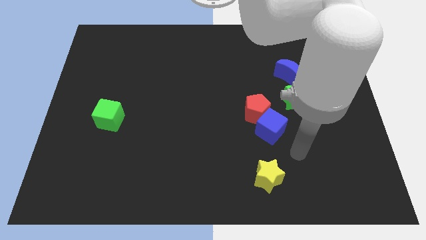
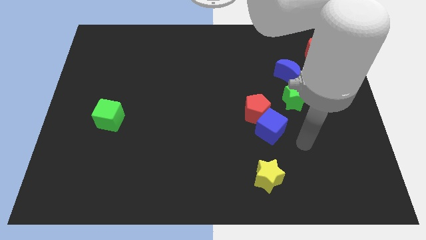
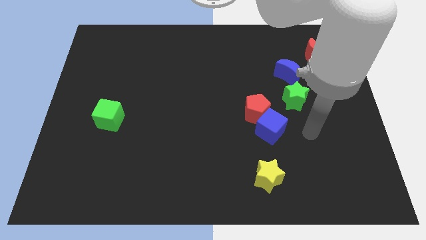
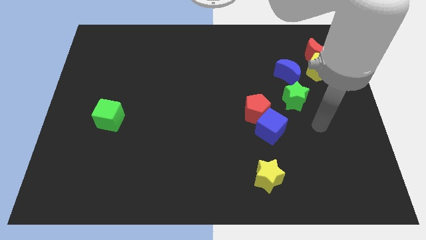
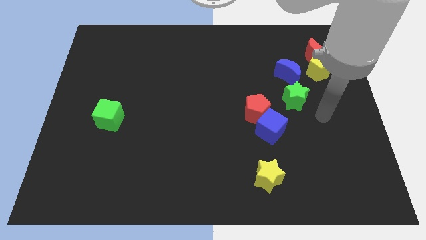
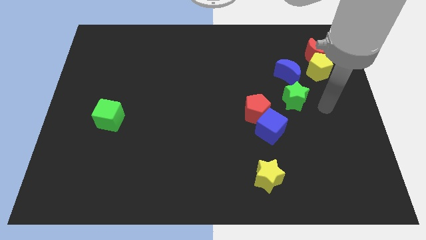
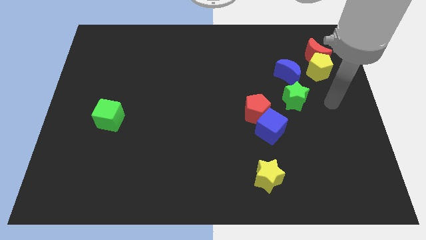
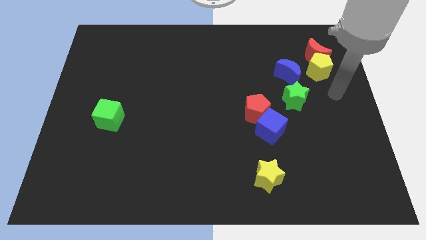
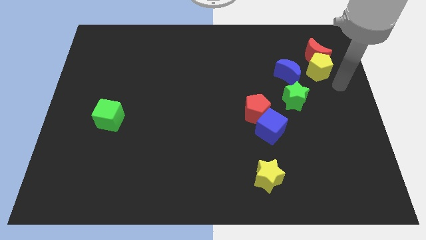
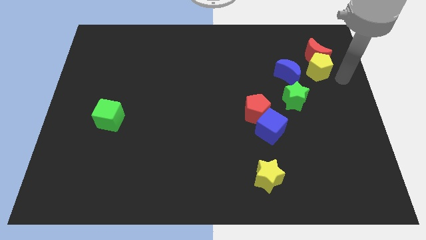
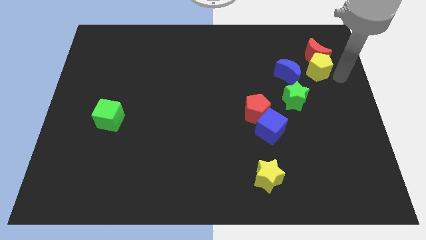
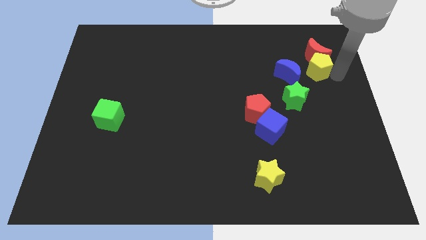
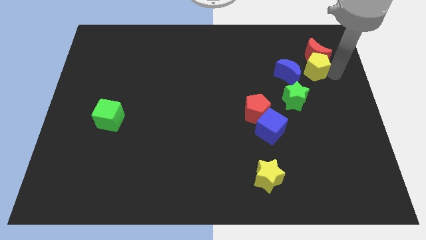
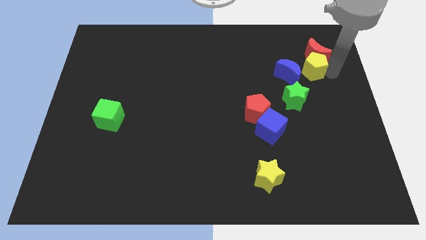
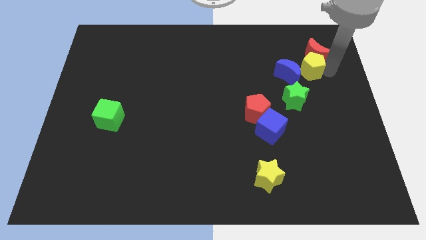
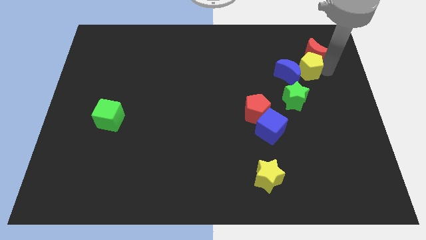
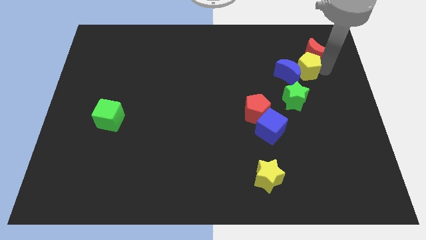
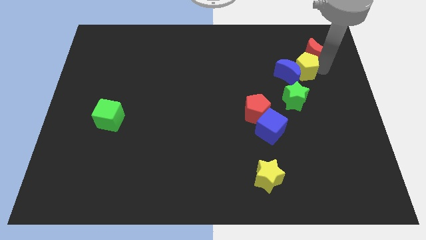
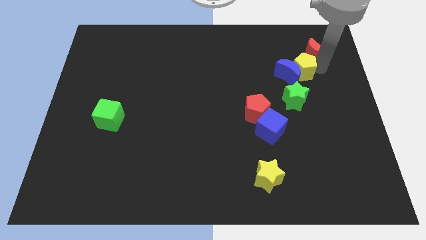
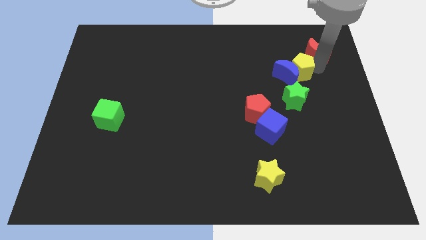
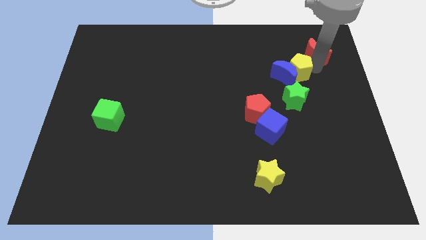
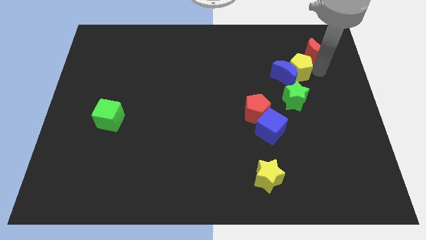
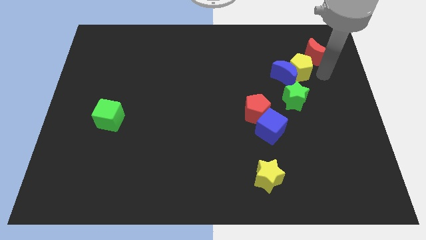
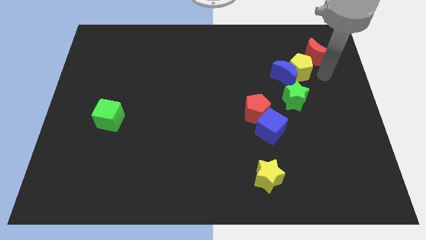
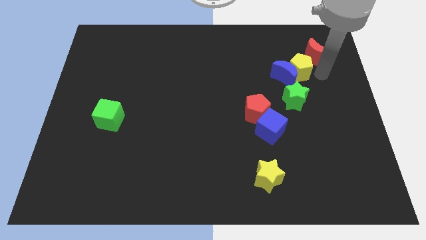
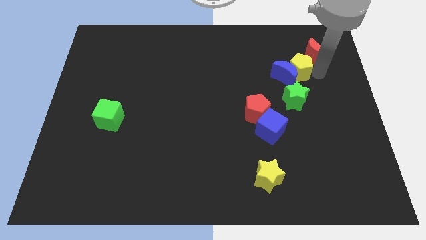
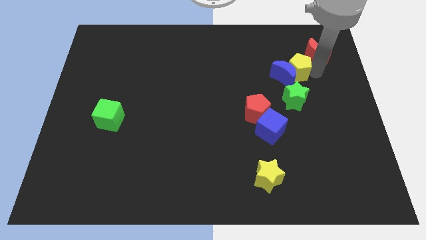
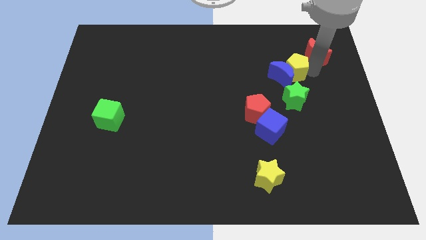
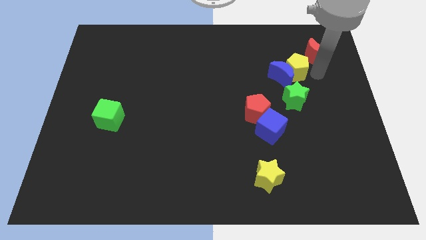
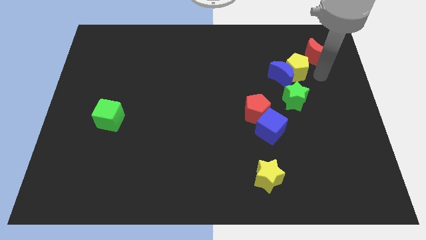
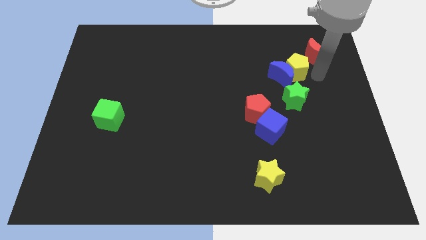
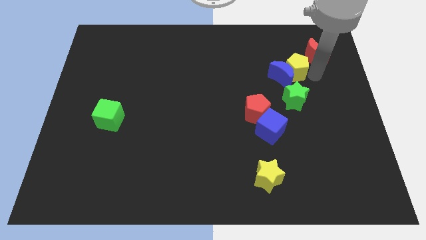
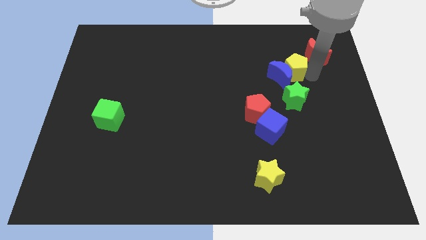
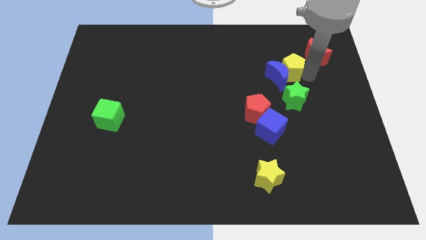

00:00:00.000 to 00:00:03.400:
push the yellow pentagon a bit left

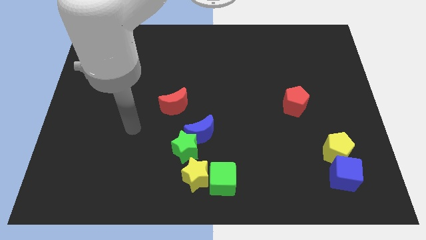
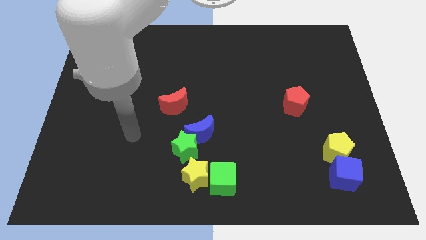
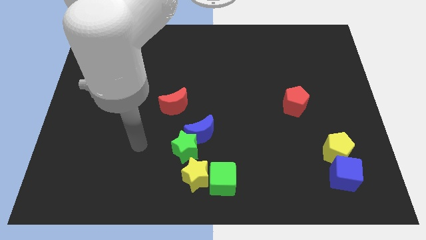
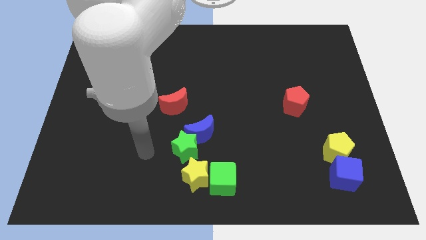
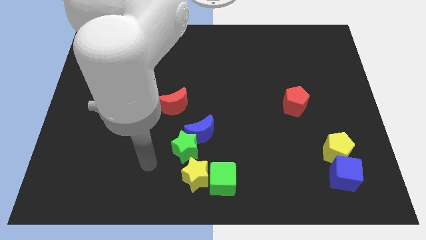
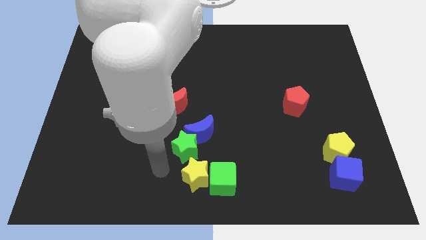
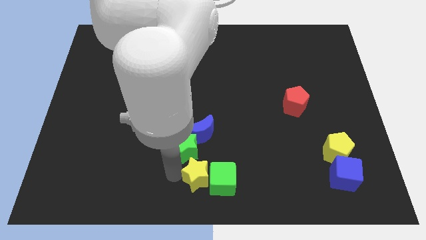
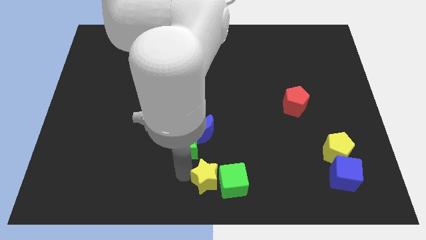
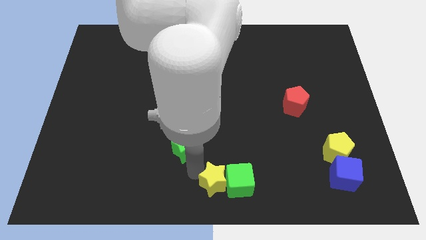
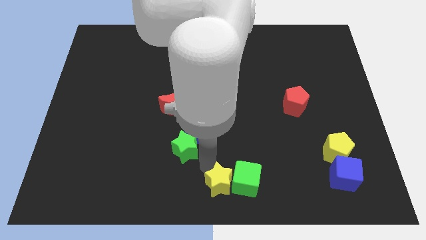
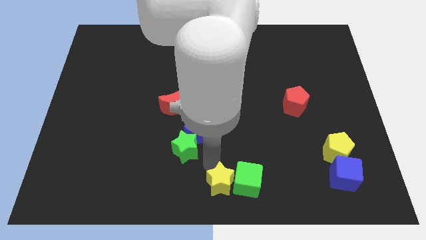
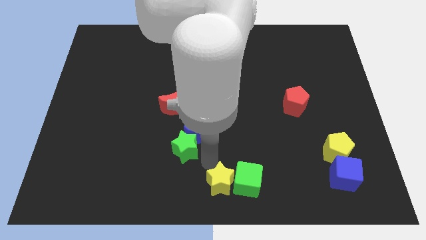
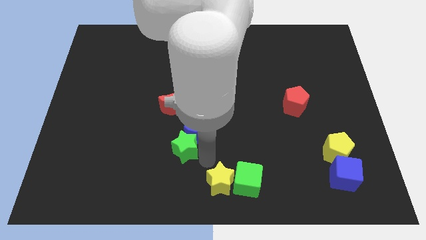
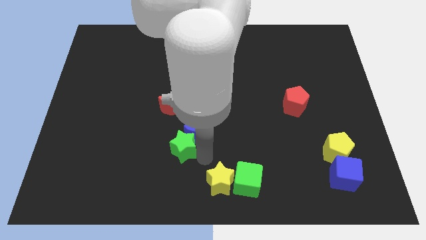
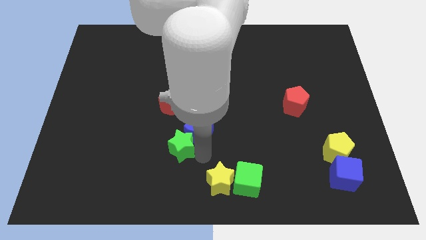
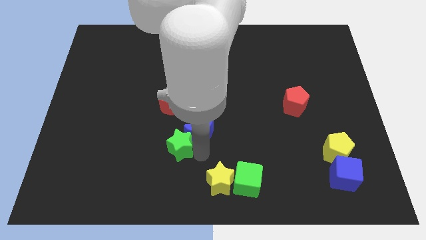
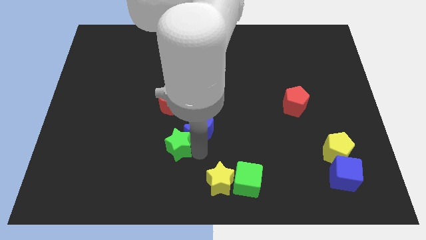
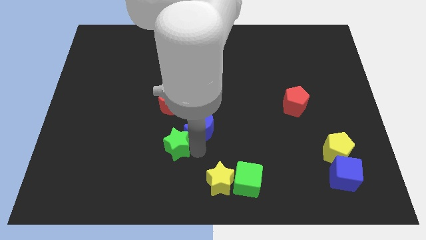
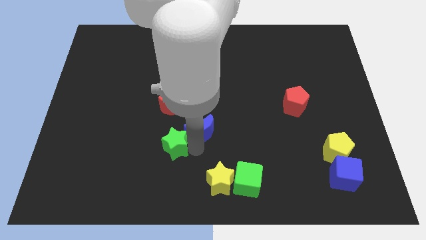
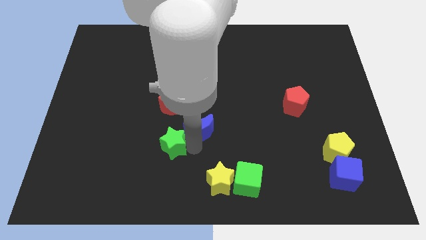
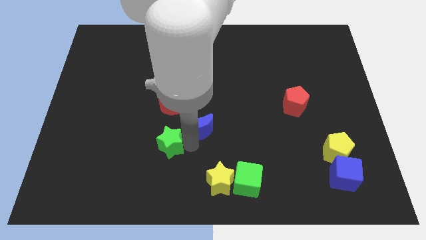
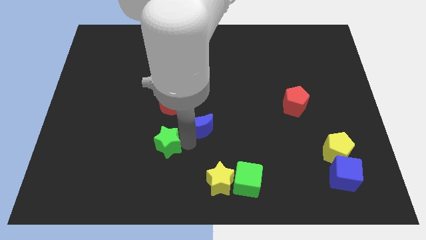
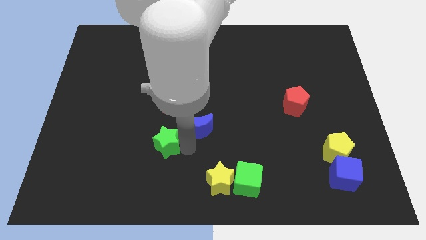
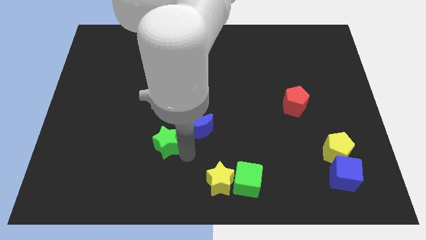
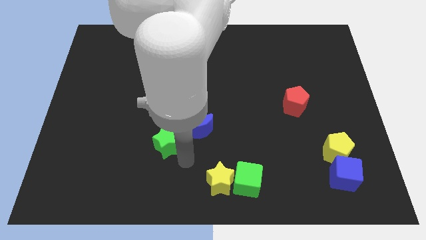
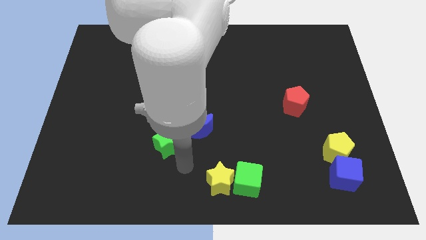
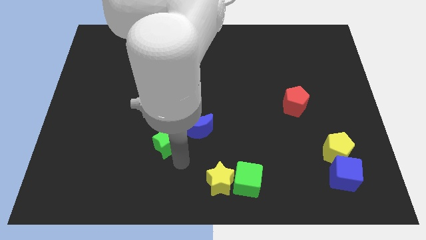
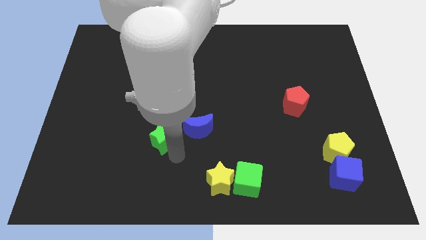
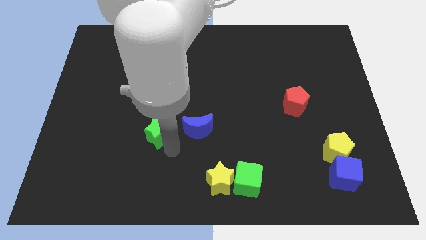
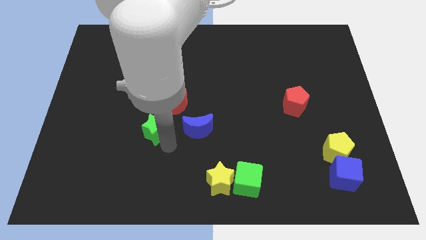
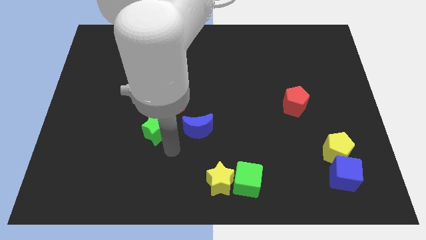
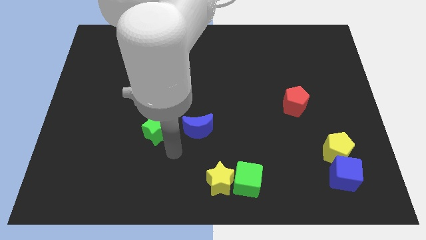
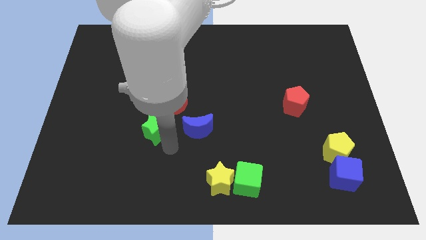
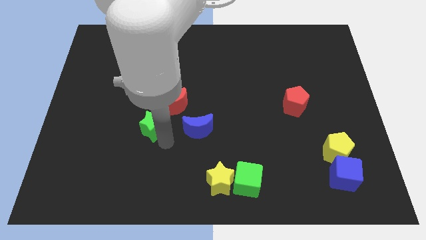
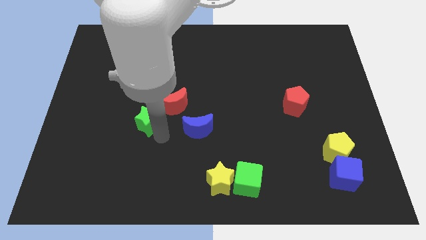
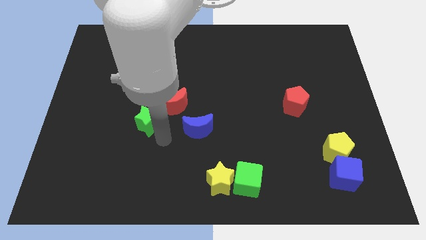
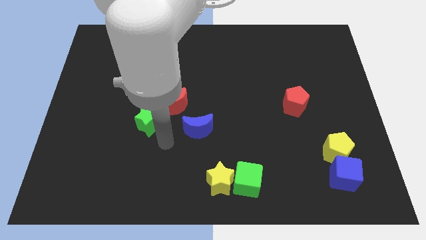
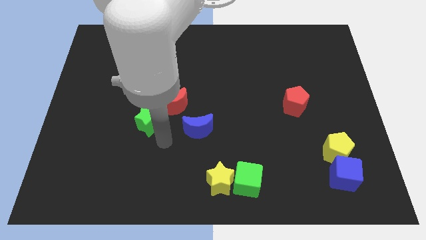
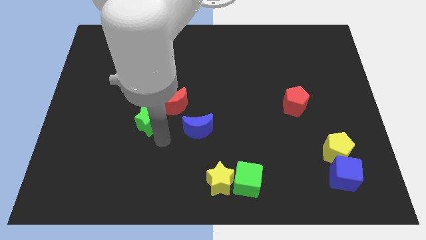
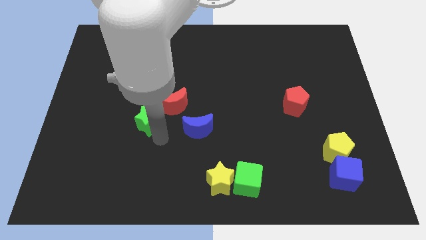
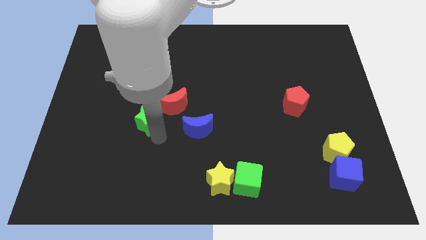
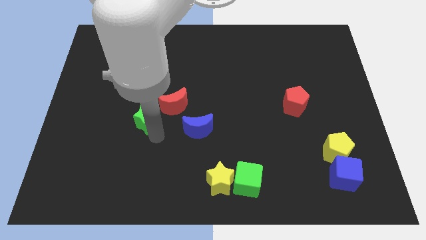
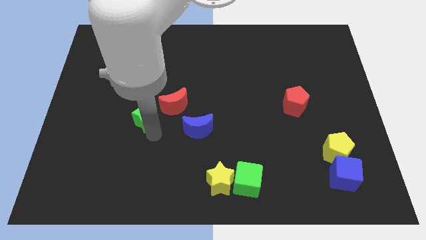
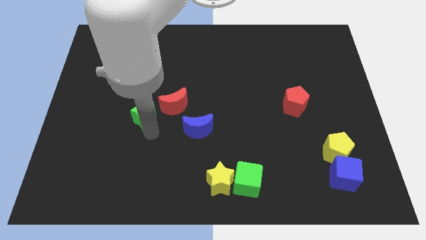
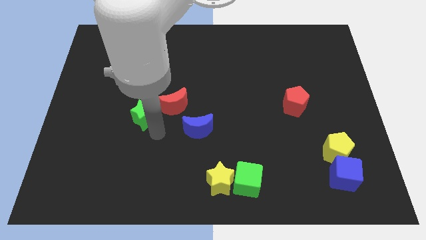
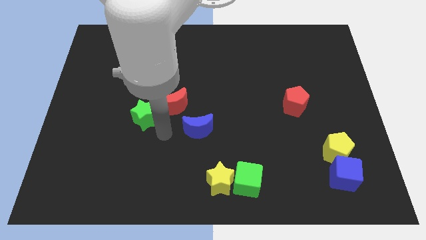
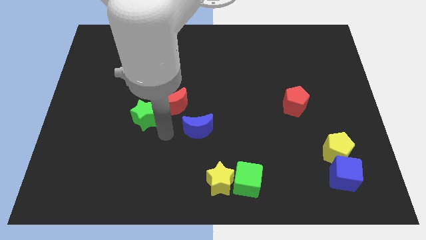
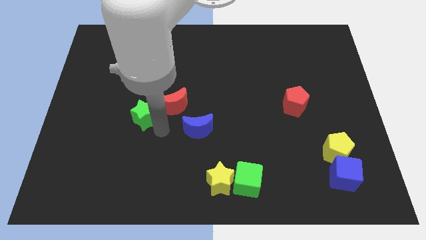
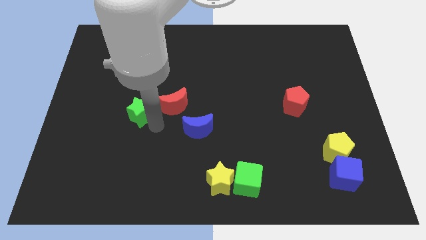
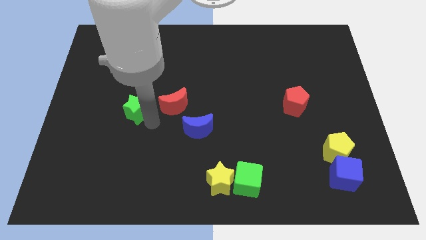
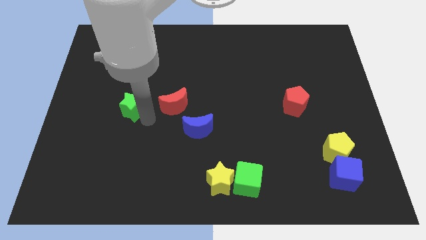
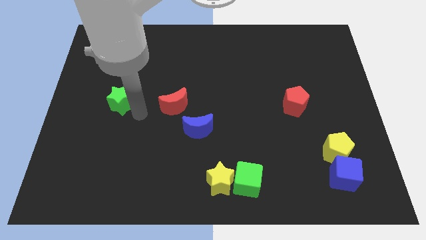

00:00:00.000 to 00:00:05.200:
push the green star upwards and then to the left
